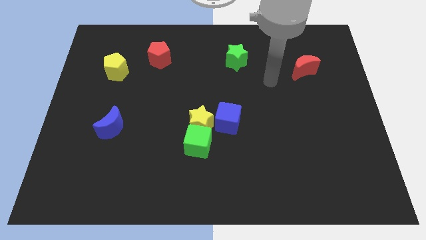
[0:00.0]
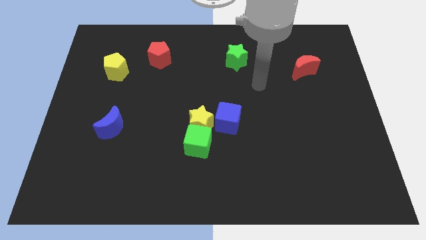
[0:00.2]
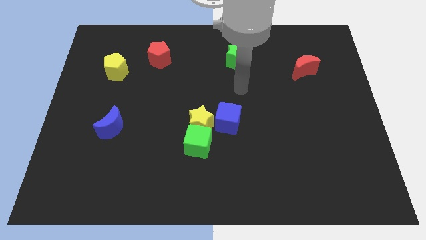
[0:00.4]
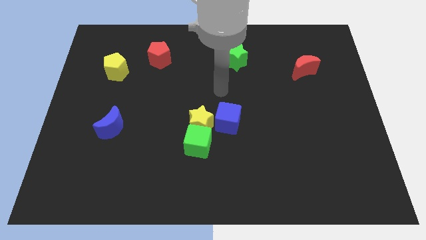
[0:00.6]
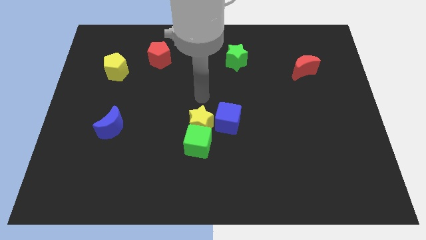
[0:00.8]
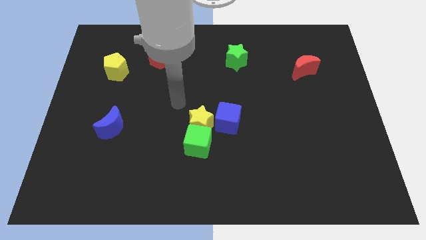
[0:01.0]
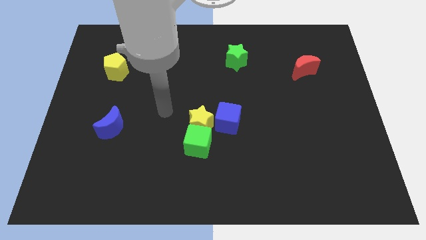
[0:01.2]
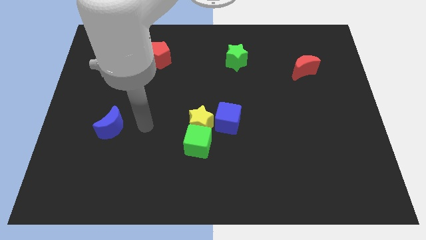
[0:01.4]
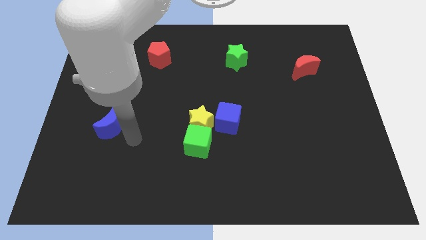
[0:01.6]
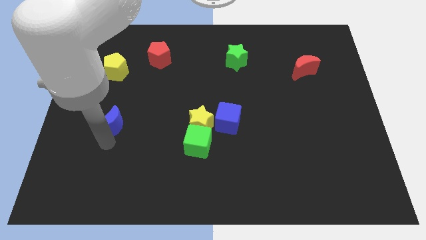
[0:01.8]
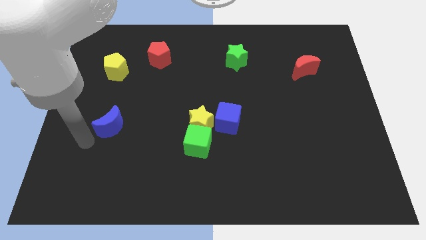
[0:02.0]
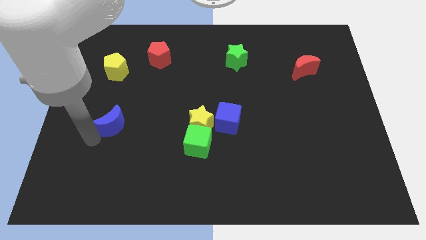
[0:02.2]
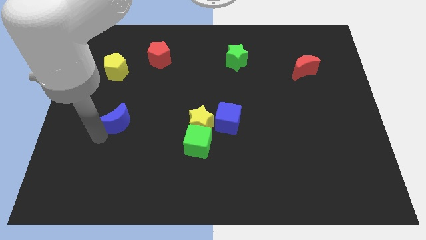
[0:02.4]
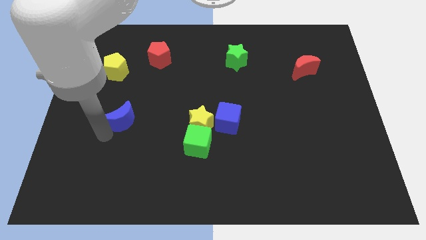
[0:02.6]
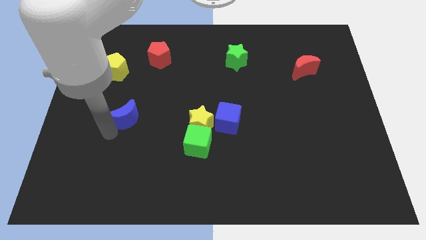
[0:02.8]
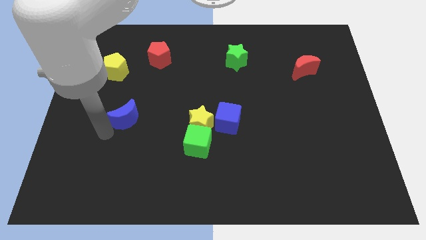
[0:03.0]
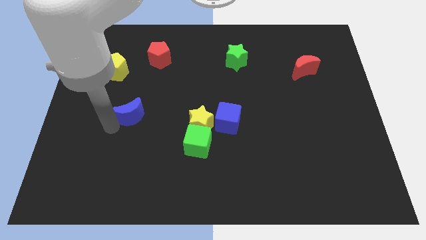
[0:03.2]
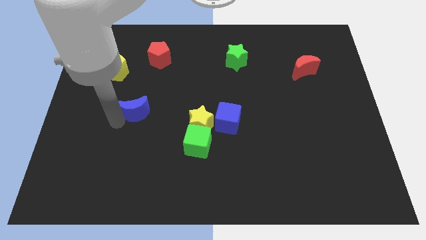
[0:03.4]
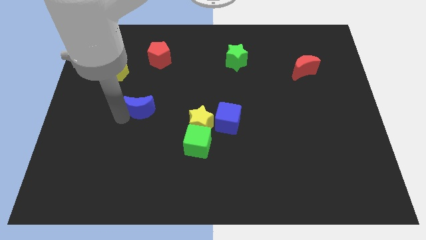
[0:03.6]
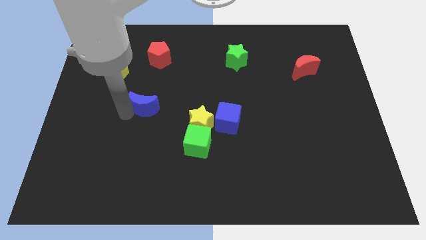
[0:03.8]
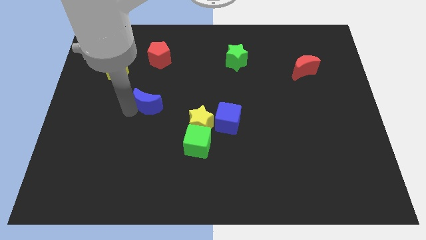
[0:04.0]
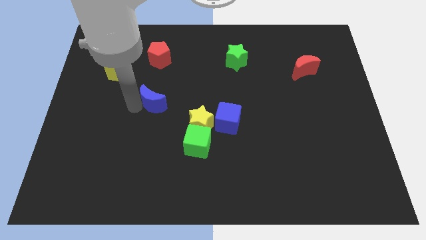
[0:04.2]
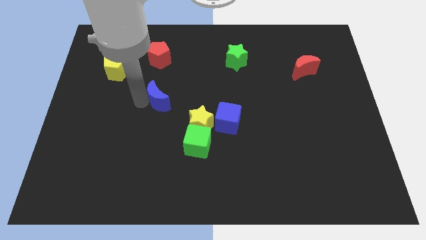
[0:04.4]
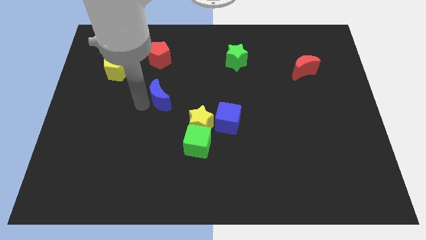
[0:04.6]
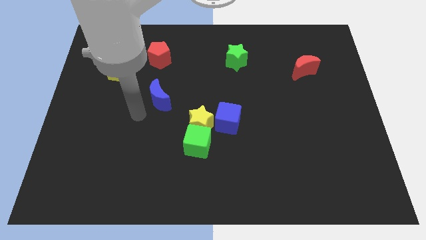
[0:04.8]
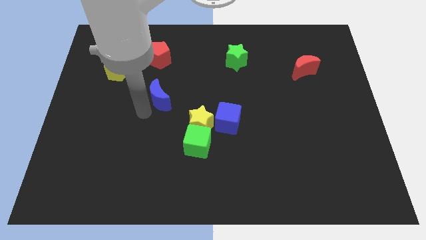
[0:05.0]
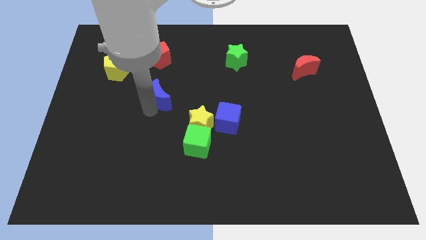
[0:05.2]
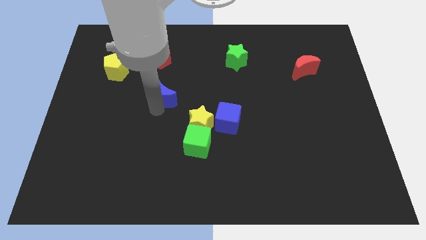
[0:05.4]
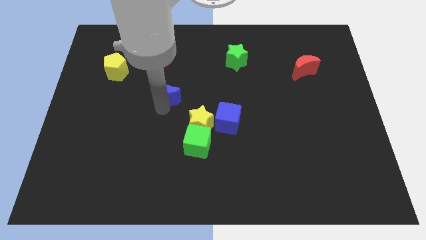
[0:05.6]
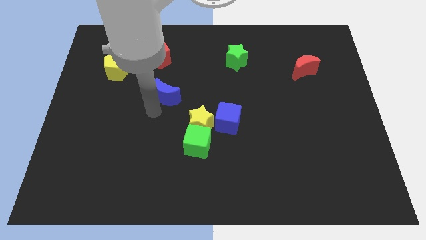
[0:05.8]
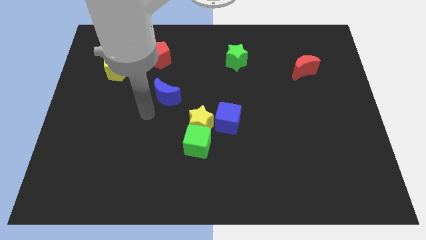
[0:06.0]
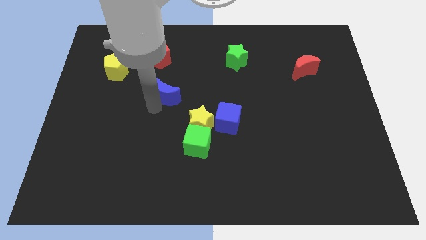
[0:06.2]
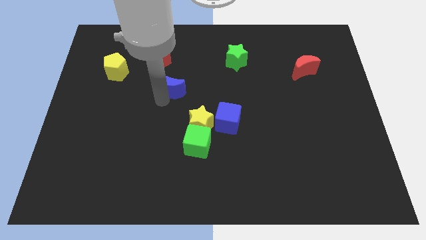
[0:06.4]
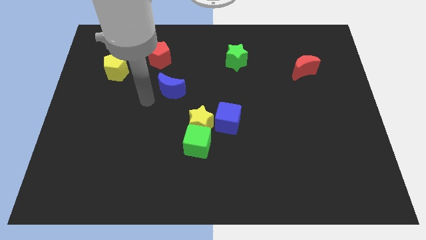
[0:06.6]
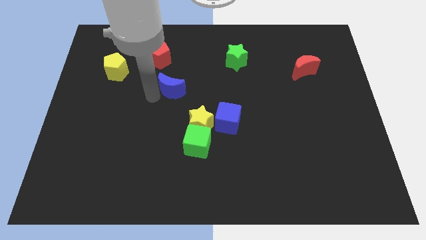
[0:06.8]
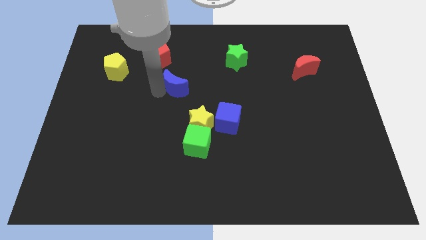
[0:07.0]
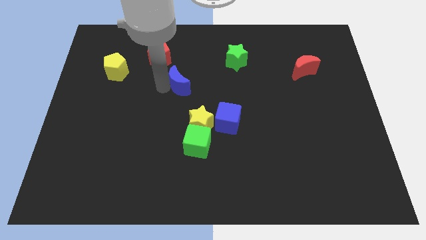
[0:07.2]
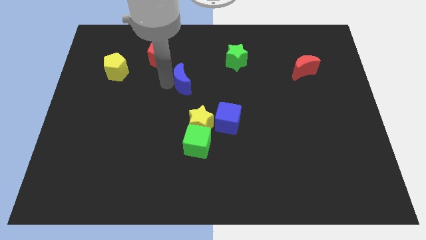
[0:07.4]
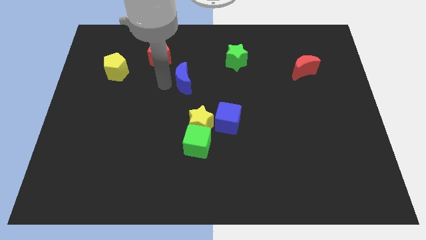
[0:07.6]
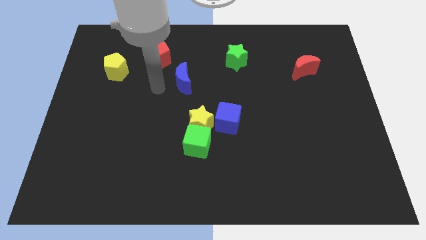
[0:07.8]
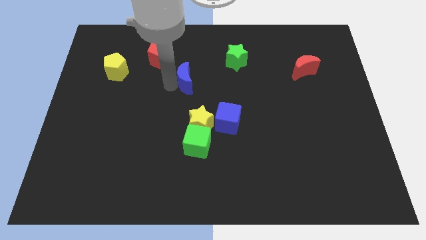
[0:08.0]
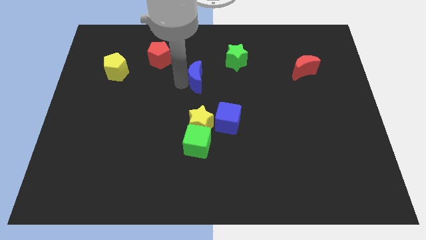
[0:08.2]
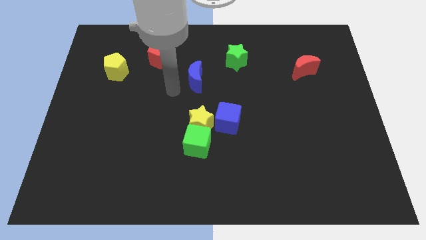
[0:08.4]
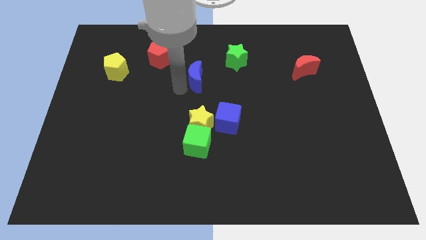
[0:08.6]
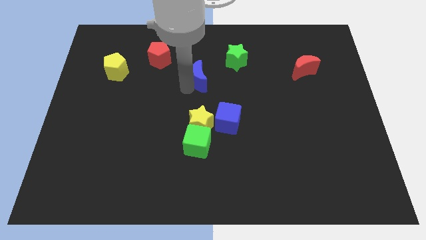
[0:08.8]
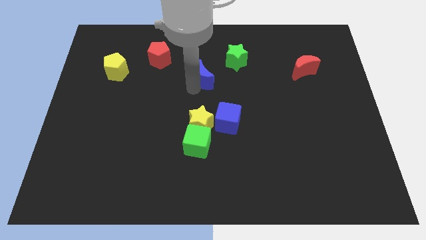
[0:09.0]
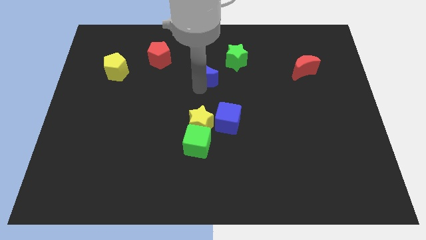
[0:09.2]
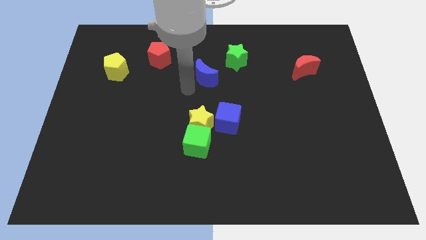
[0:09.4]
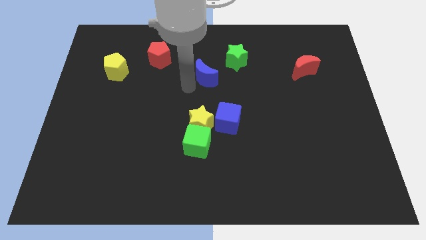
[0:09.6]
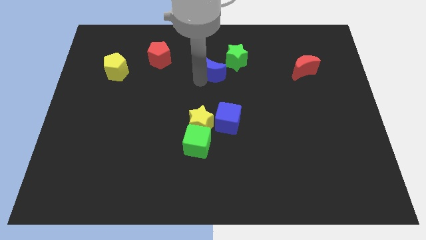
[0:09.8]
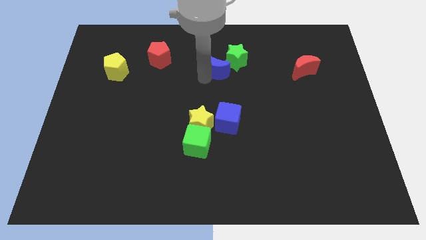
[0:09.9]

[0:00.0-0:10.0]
move the blue moon close to the green star

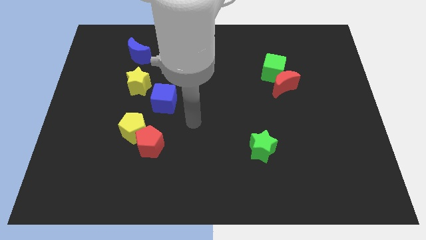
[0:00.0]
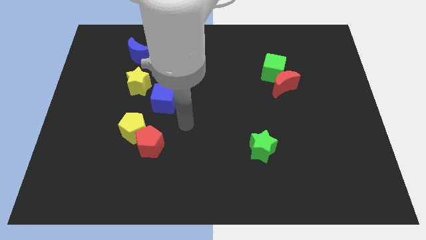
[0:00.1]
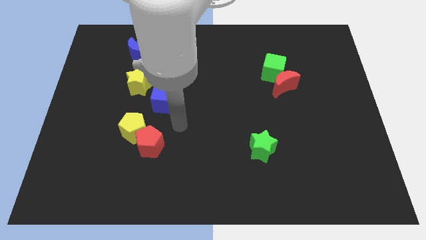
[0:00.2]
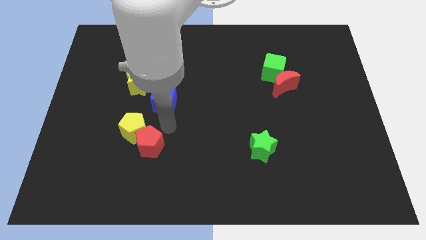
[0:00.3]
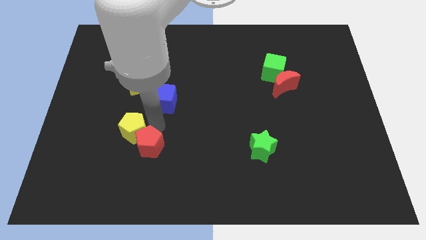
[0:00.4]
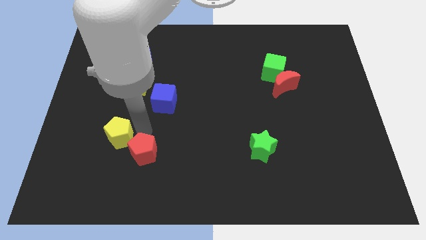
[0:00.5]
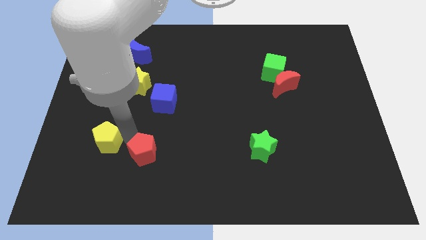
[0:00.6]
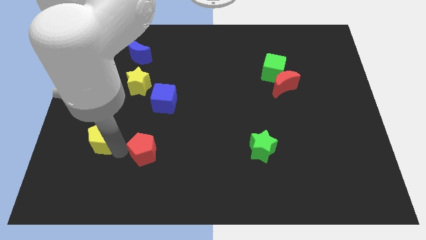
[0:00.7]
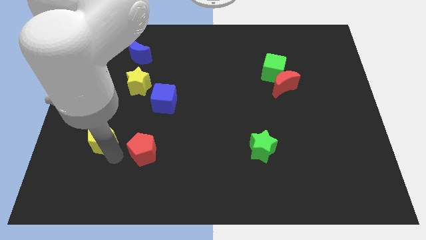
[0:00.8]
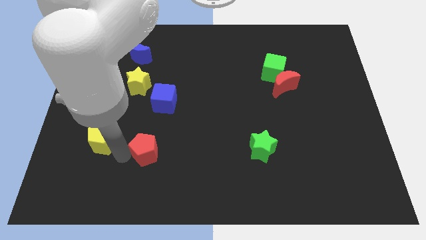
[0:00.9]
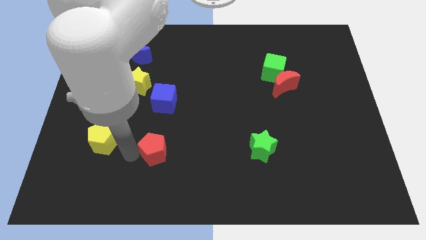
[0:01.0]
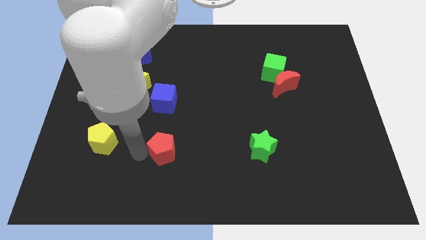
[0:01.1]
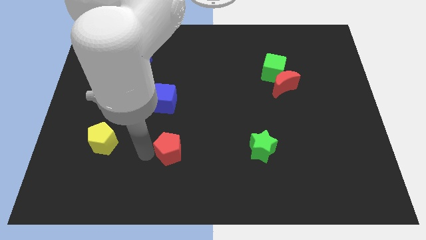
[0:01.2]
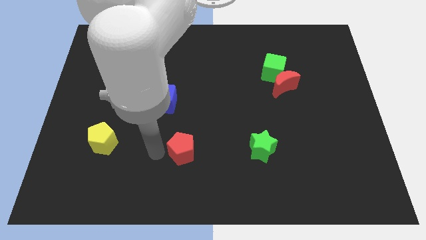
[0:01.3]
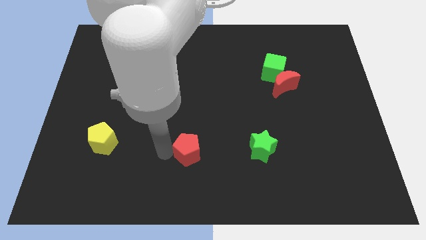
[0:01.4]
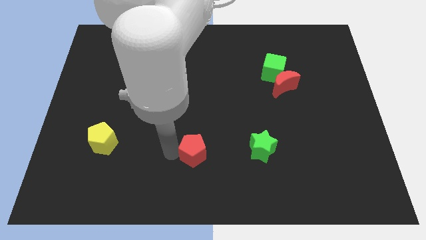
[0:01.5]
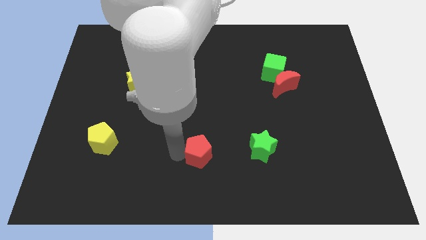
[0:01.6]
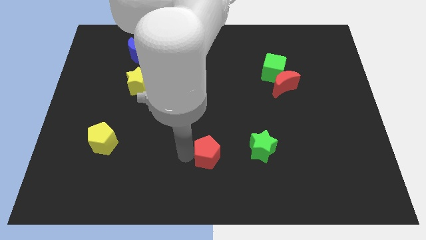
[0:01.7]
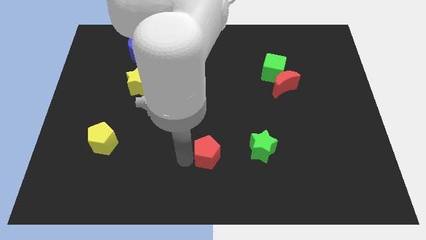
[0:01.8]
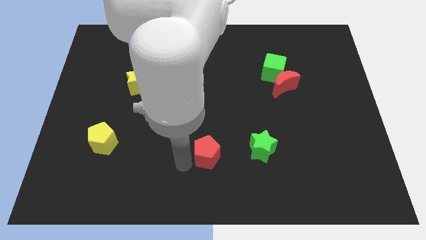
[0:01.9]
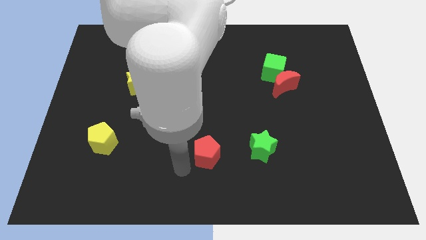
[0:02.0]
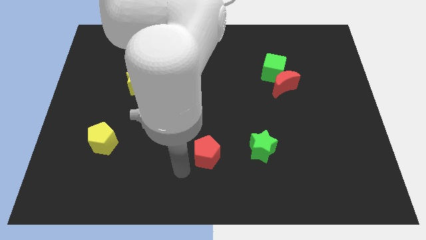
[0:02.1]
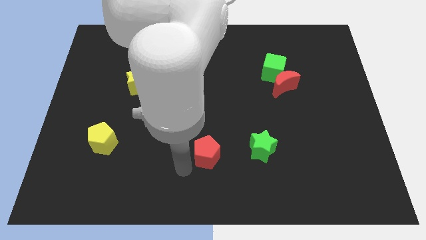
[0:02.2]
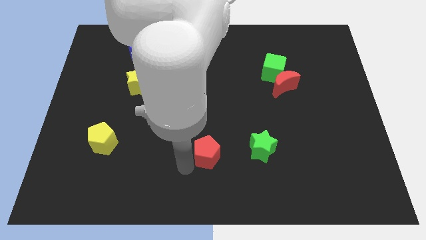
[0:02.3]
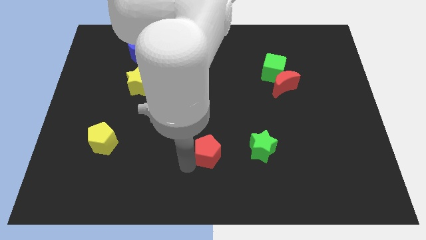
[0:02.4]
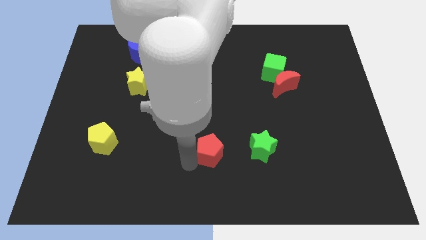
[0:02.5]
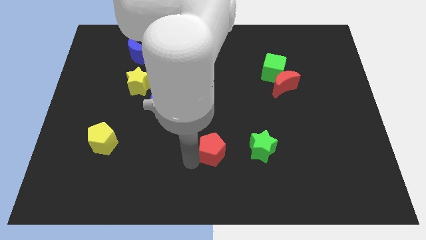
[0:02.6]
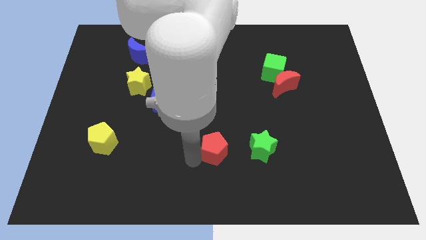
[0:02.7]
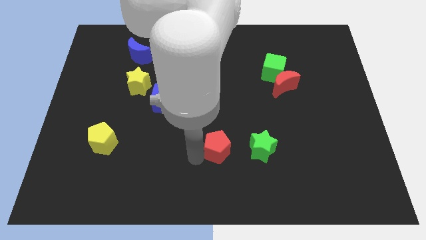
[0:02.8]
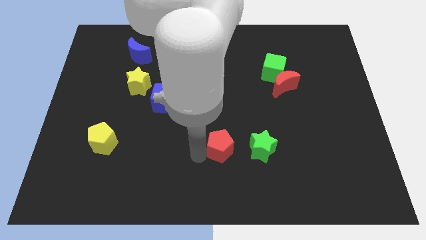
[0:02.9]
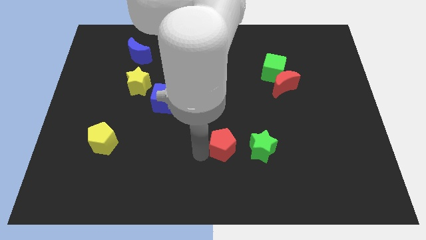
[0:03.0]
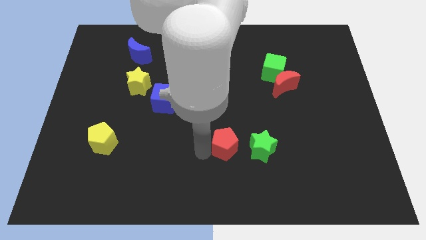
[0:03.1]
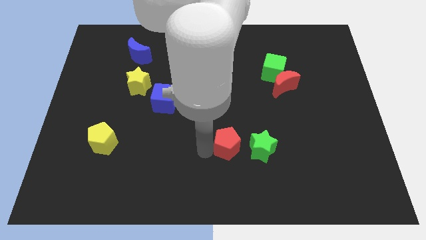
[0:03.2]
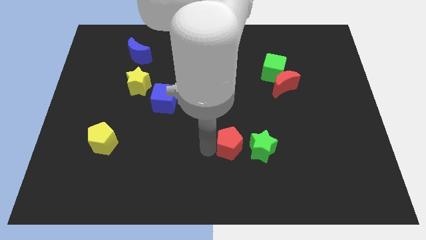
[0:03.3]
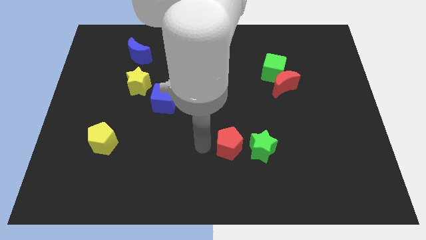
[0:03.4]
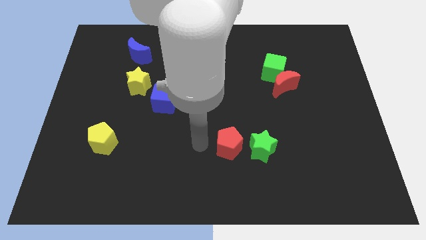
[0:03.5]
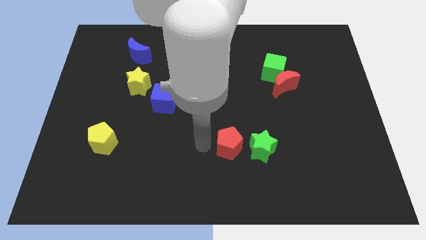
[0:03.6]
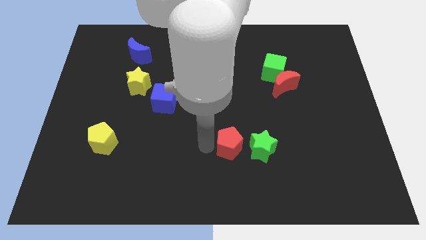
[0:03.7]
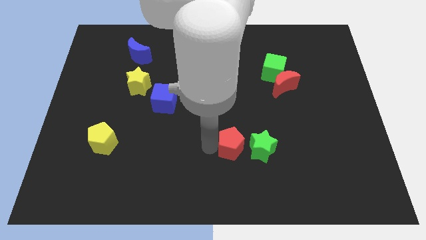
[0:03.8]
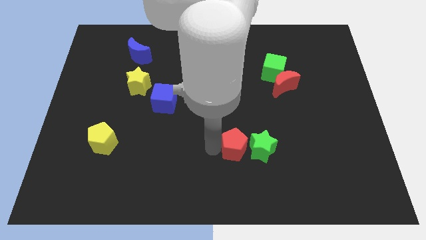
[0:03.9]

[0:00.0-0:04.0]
push the red pentagon towards the green star
